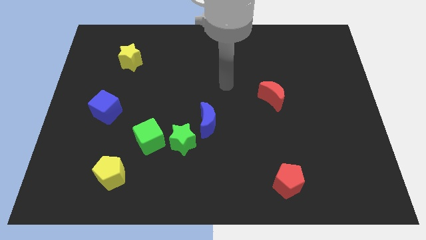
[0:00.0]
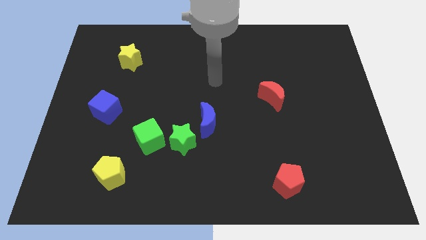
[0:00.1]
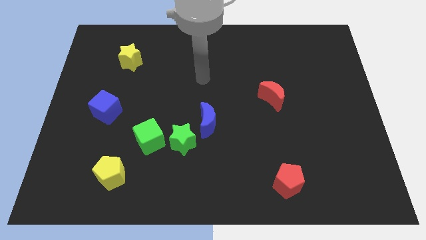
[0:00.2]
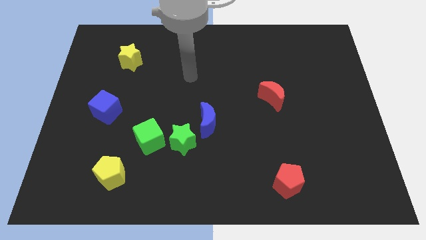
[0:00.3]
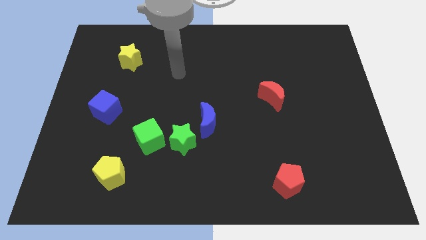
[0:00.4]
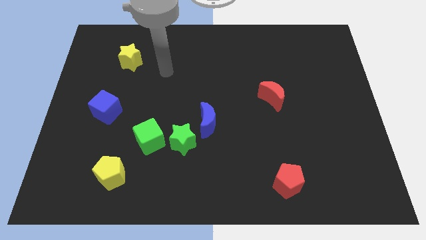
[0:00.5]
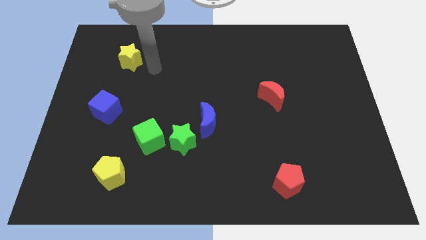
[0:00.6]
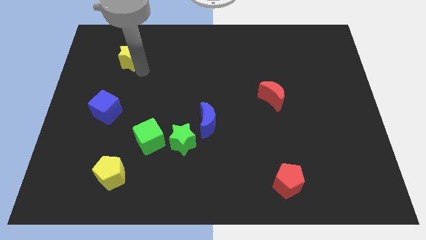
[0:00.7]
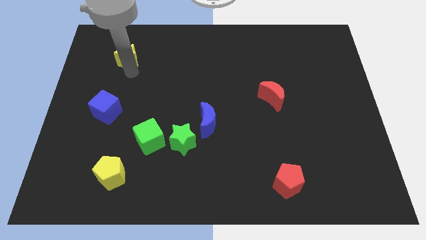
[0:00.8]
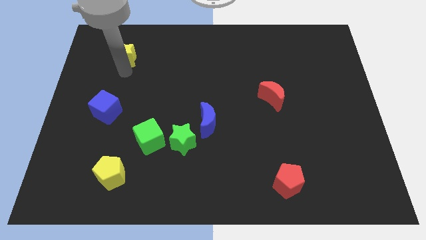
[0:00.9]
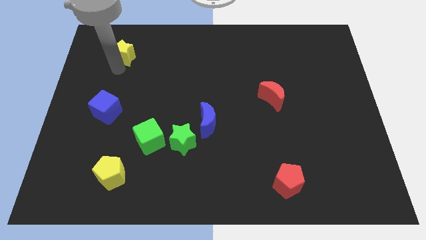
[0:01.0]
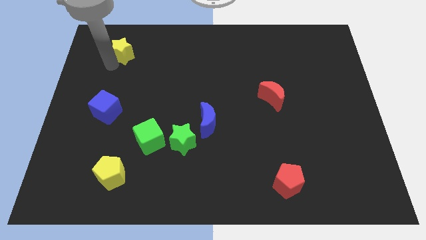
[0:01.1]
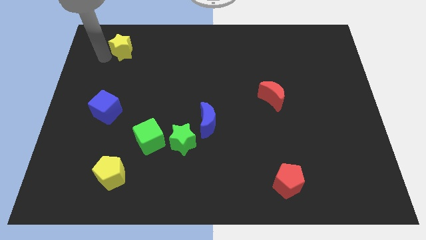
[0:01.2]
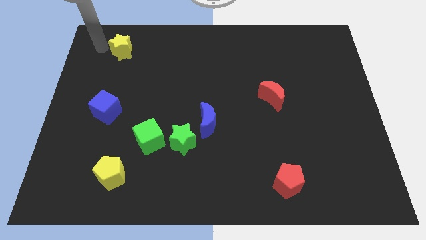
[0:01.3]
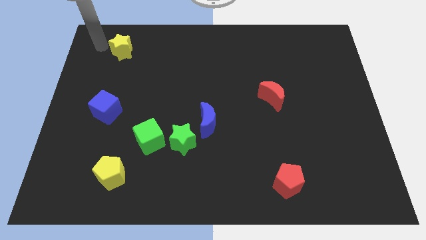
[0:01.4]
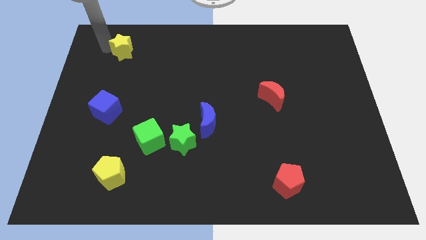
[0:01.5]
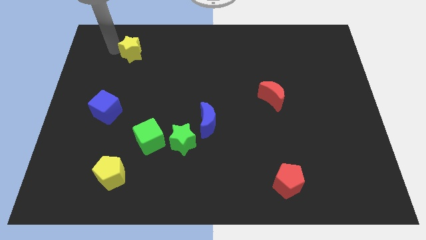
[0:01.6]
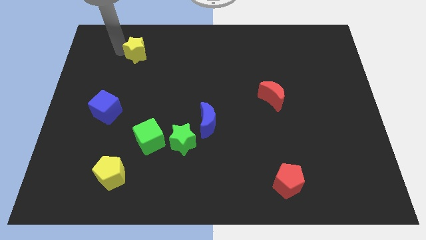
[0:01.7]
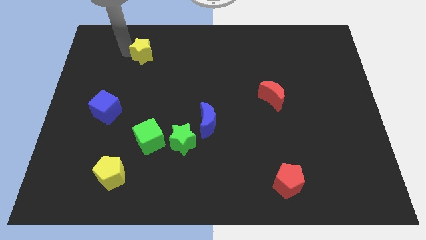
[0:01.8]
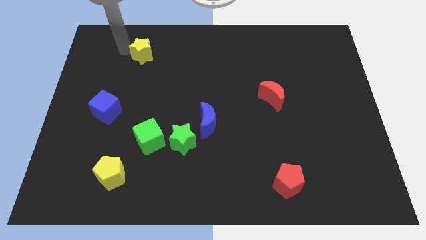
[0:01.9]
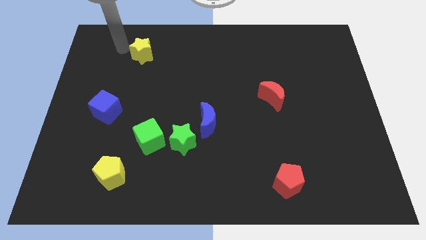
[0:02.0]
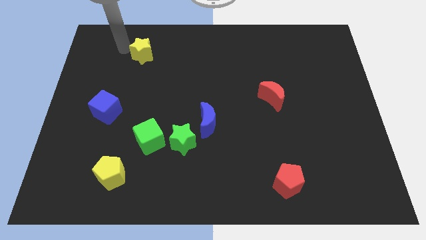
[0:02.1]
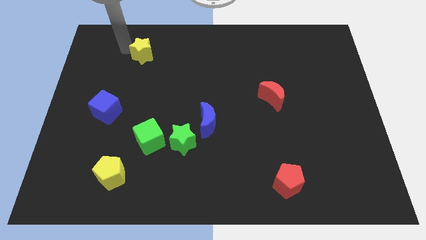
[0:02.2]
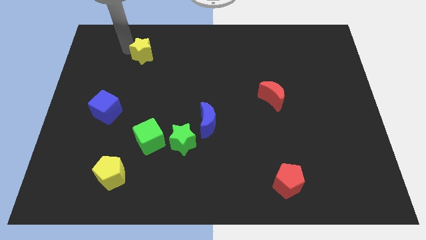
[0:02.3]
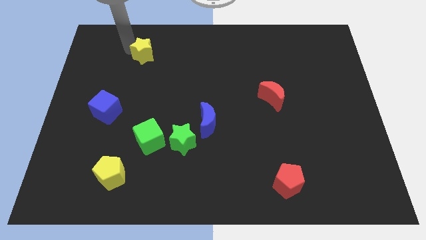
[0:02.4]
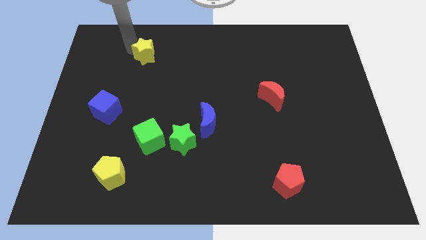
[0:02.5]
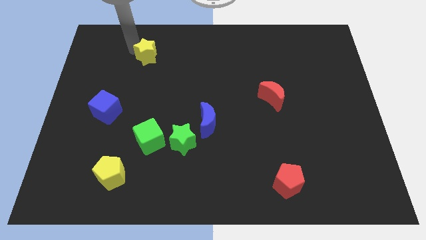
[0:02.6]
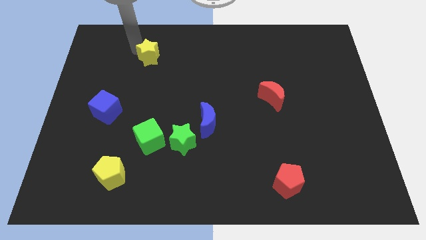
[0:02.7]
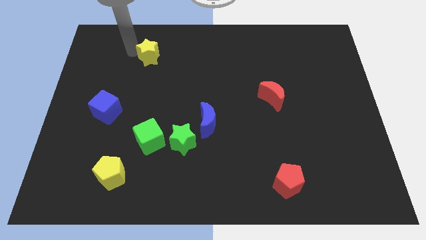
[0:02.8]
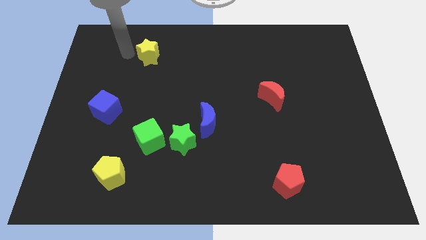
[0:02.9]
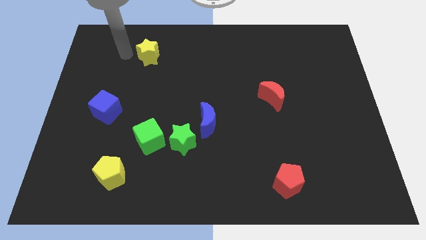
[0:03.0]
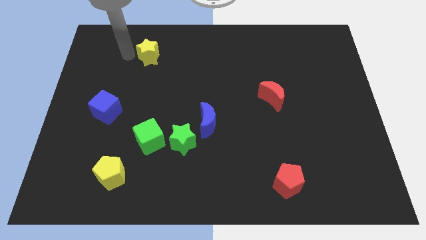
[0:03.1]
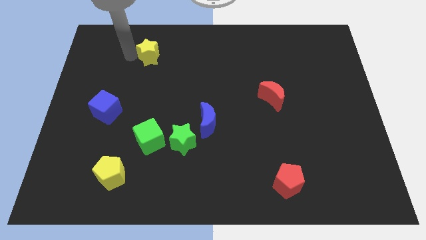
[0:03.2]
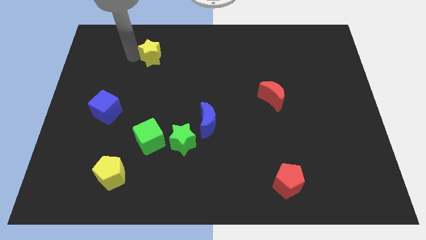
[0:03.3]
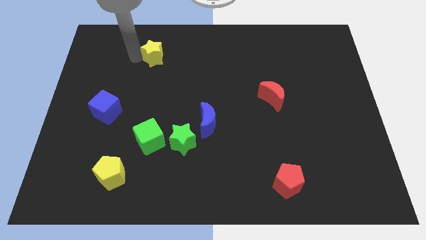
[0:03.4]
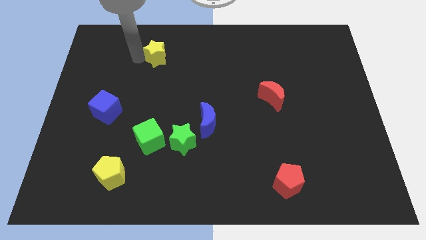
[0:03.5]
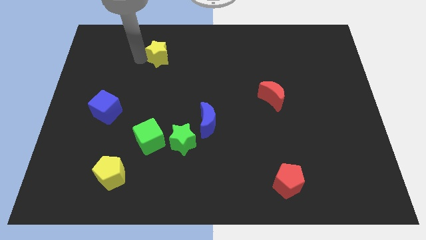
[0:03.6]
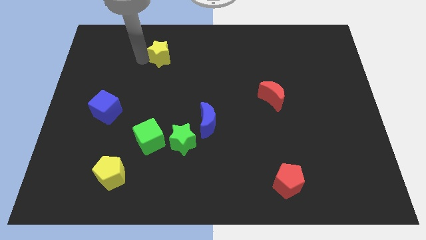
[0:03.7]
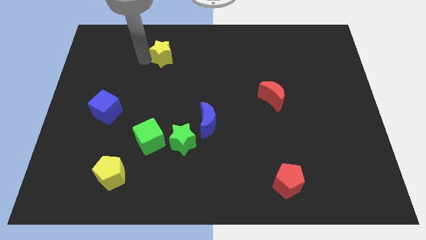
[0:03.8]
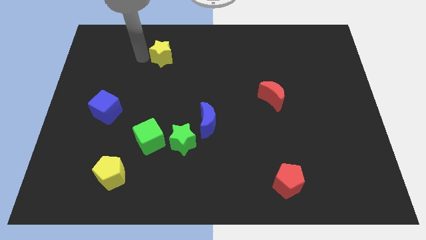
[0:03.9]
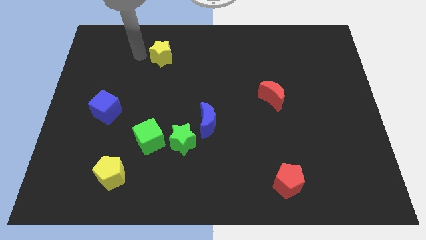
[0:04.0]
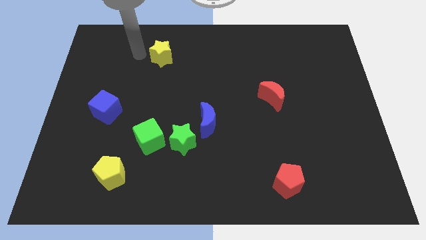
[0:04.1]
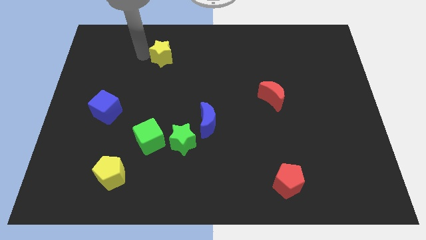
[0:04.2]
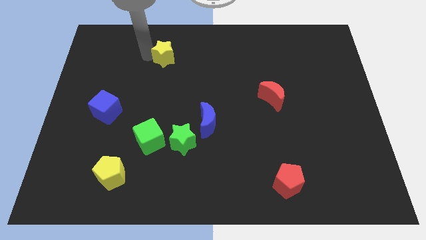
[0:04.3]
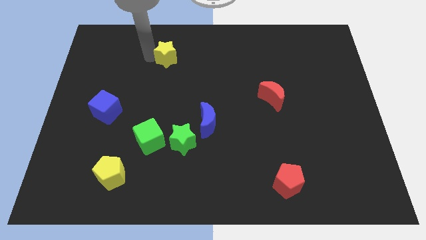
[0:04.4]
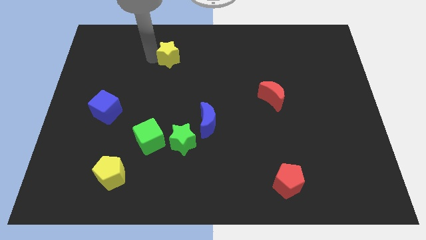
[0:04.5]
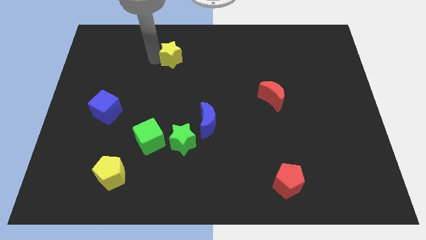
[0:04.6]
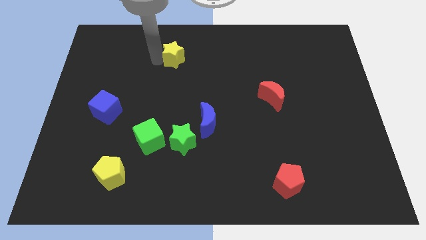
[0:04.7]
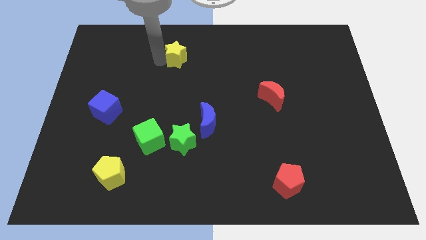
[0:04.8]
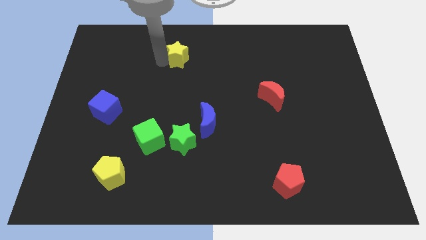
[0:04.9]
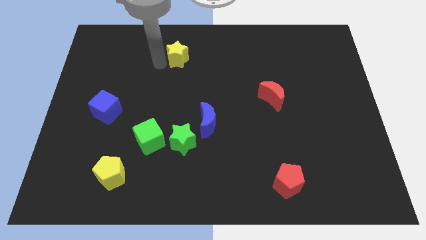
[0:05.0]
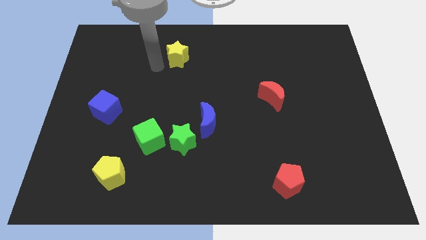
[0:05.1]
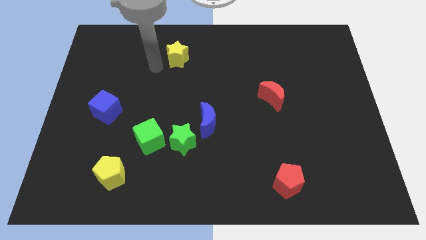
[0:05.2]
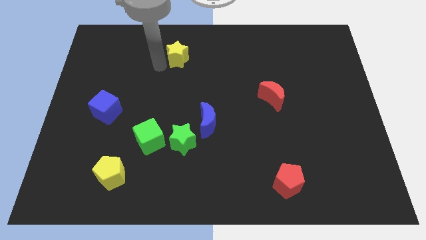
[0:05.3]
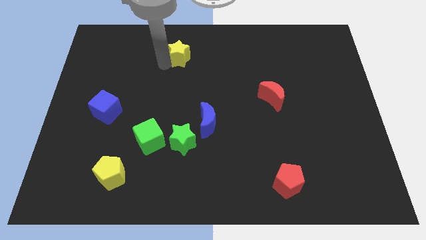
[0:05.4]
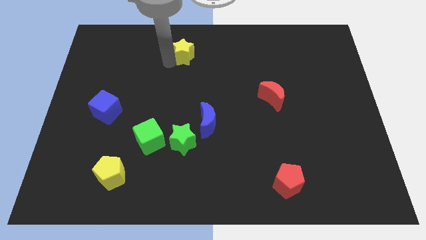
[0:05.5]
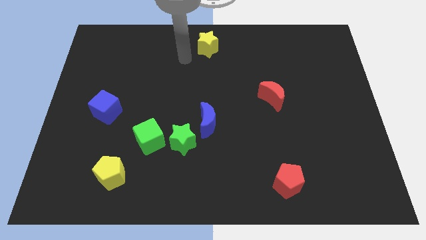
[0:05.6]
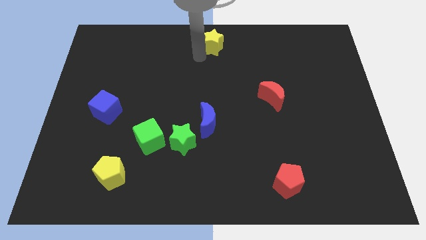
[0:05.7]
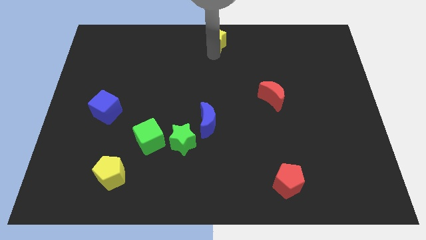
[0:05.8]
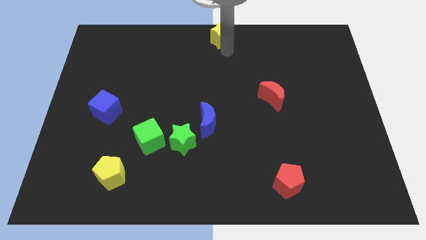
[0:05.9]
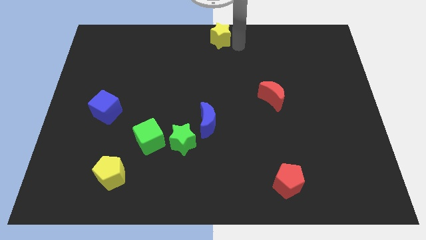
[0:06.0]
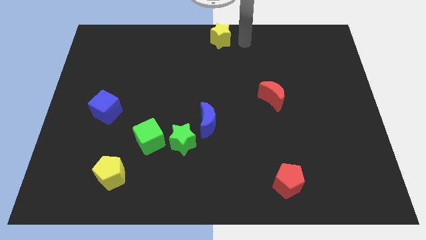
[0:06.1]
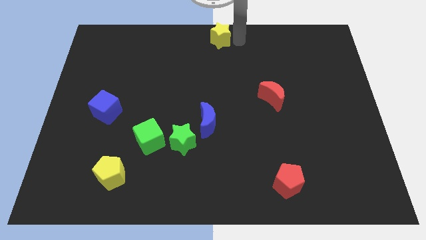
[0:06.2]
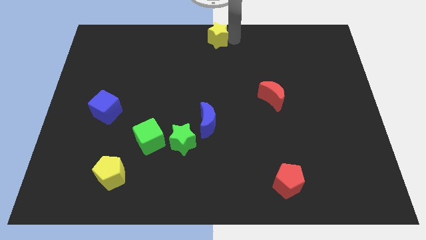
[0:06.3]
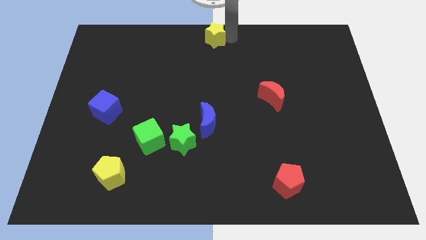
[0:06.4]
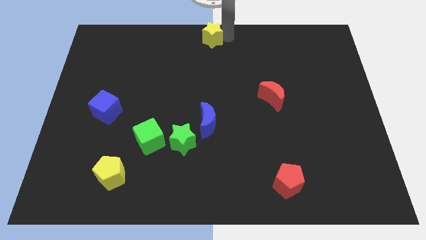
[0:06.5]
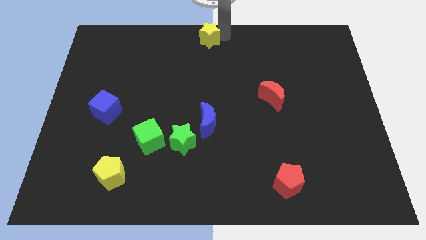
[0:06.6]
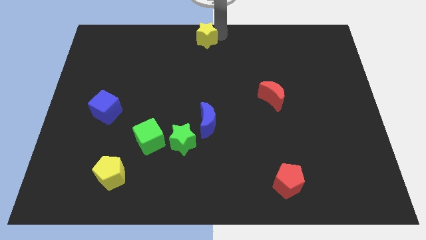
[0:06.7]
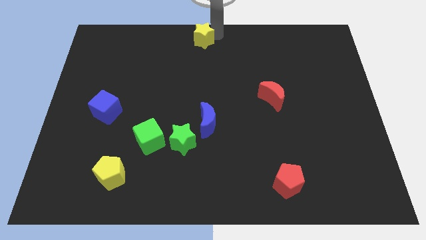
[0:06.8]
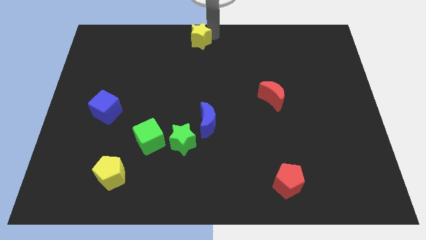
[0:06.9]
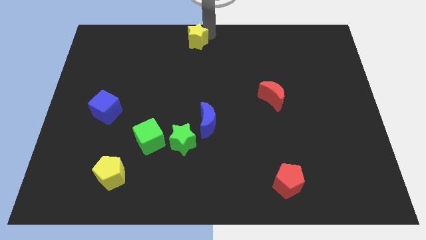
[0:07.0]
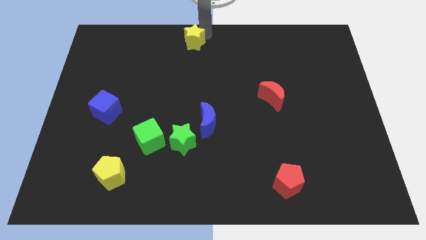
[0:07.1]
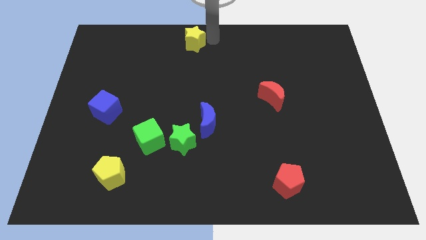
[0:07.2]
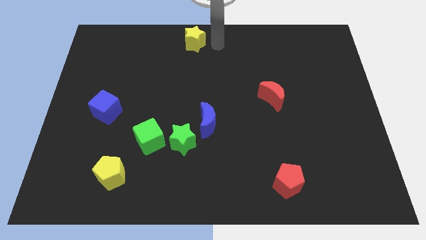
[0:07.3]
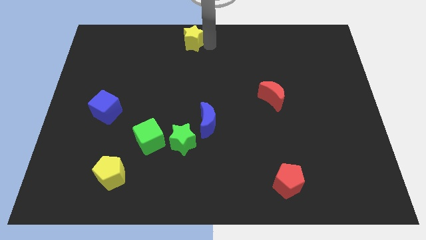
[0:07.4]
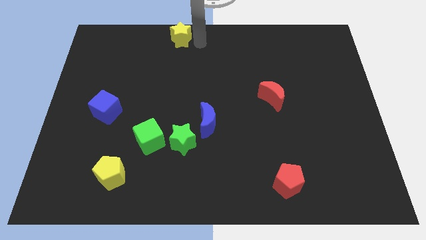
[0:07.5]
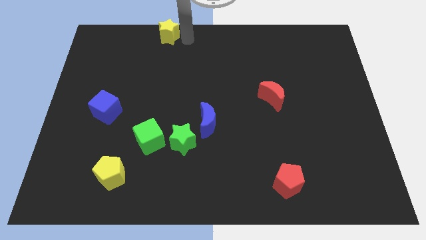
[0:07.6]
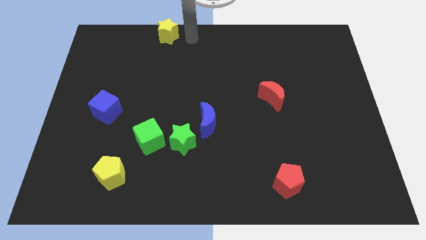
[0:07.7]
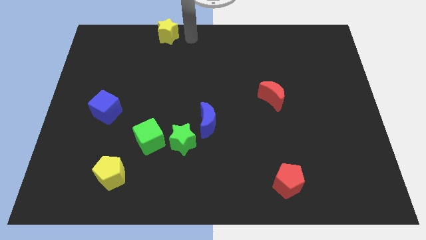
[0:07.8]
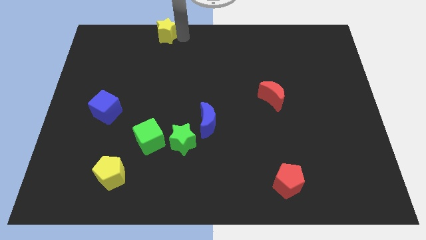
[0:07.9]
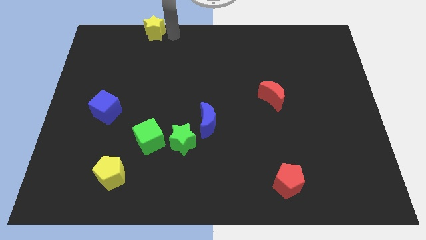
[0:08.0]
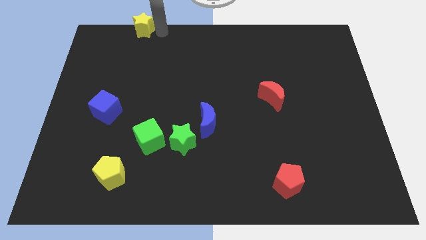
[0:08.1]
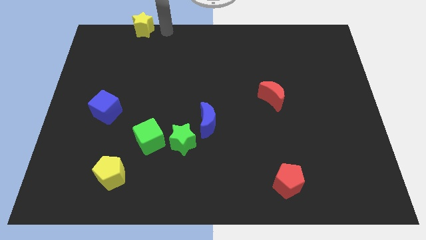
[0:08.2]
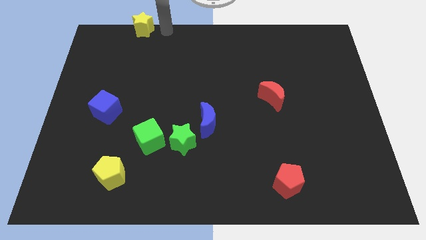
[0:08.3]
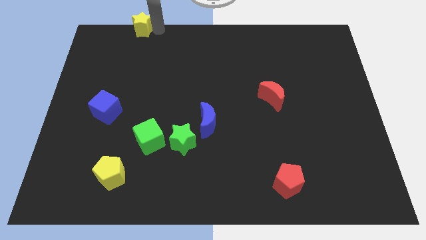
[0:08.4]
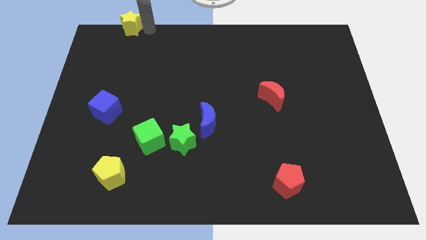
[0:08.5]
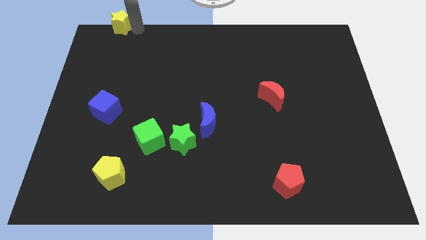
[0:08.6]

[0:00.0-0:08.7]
slide the yellow star to the top left of the board
